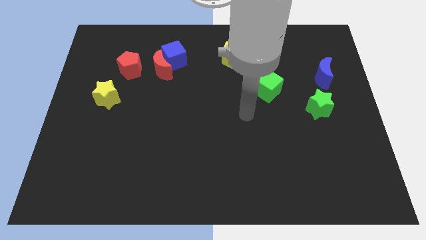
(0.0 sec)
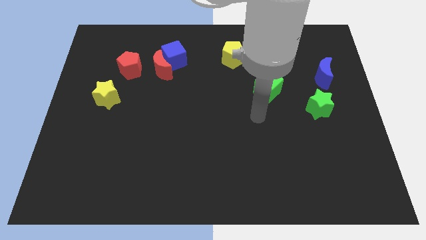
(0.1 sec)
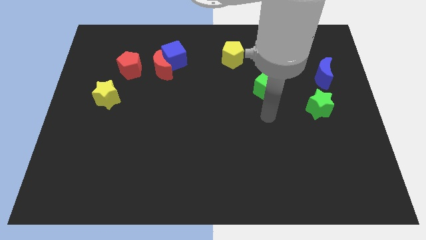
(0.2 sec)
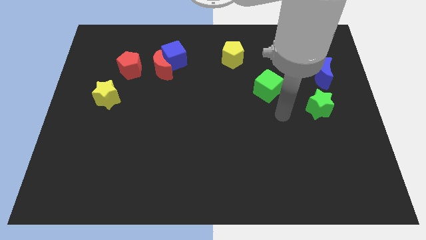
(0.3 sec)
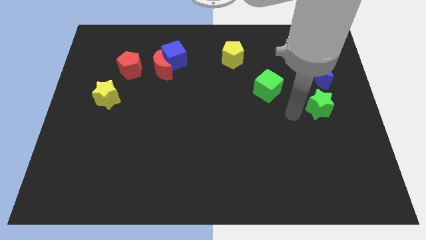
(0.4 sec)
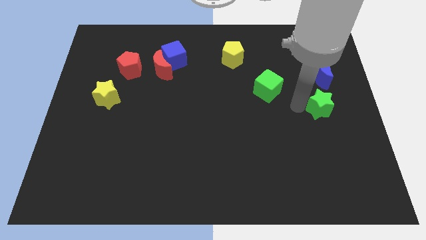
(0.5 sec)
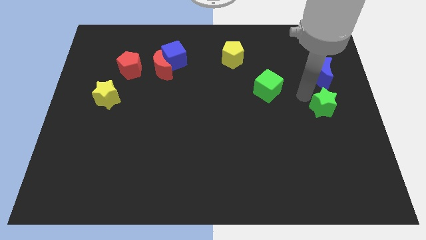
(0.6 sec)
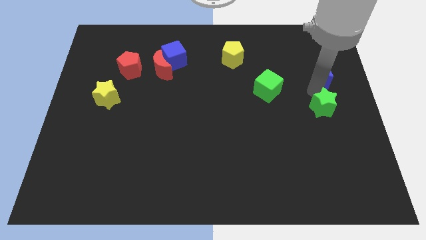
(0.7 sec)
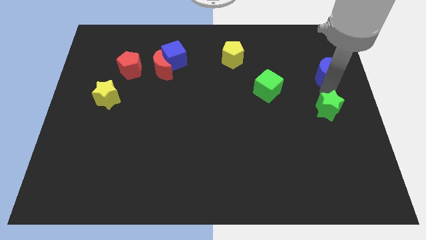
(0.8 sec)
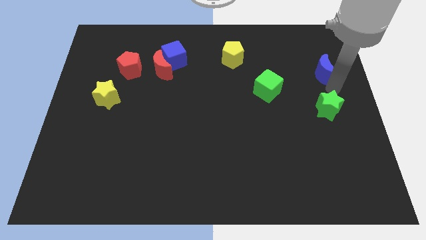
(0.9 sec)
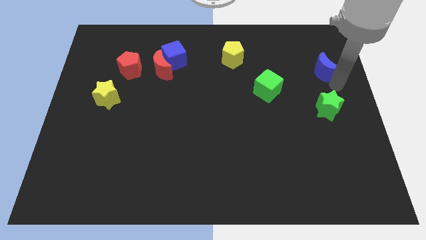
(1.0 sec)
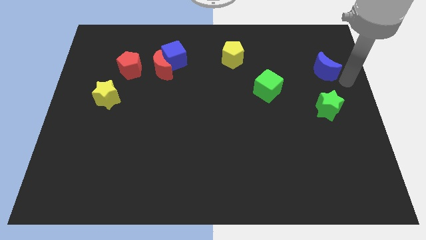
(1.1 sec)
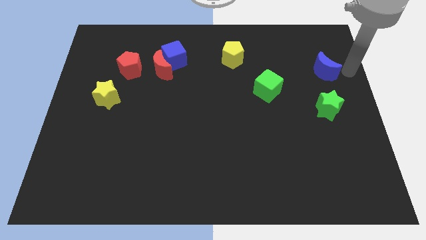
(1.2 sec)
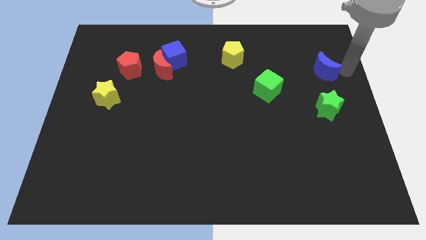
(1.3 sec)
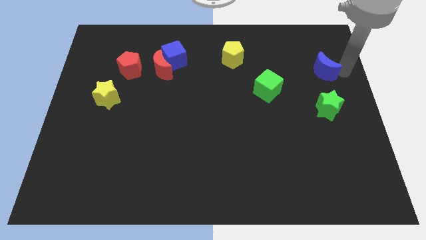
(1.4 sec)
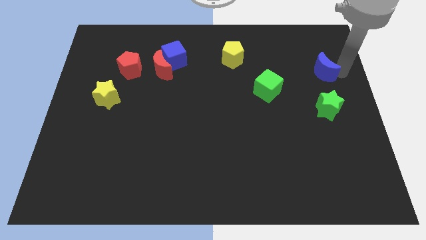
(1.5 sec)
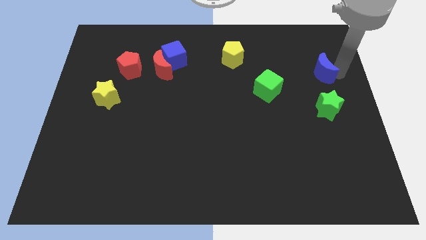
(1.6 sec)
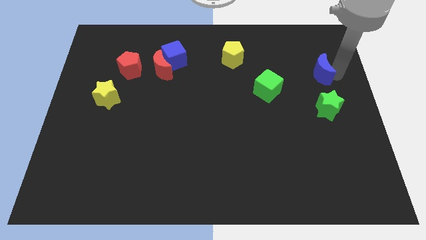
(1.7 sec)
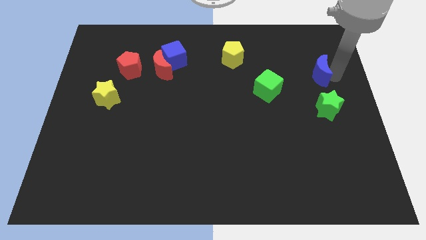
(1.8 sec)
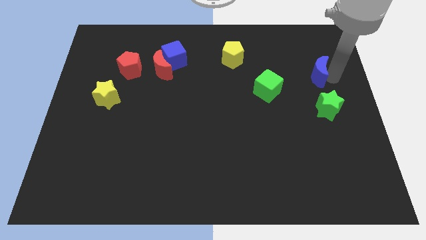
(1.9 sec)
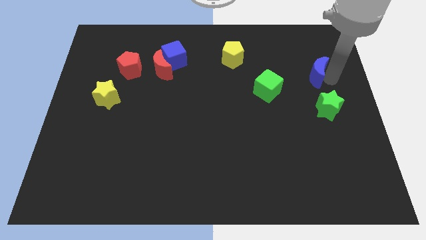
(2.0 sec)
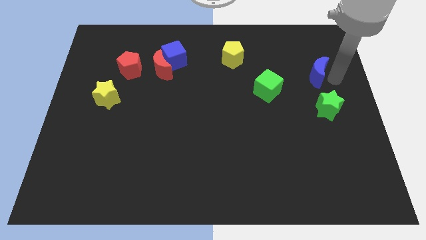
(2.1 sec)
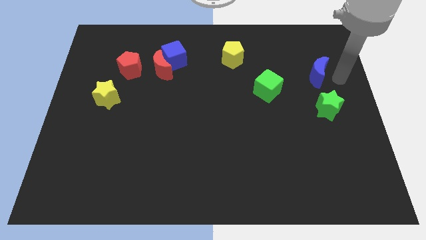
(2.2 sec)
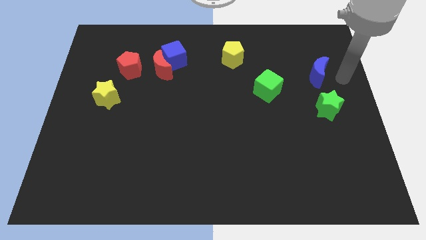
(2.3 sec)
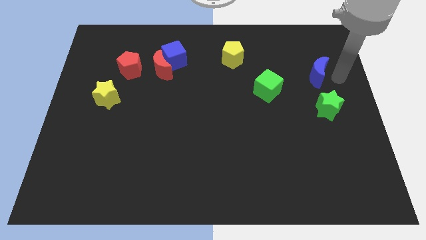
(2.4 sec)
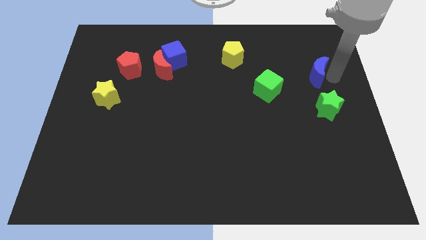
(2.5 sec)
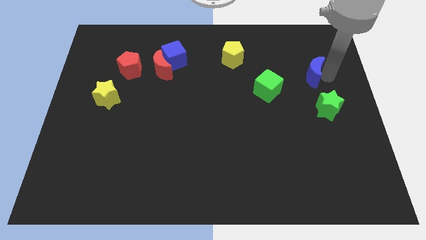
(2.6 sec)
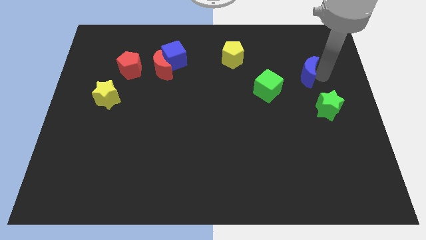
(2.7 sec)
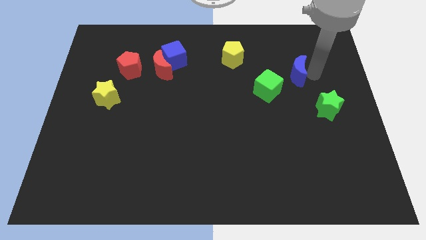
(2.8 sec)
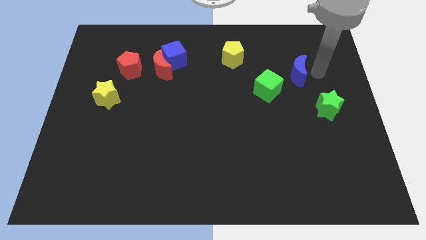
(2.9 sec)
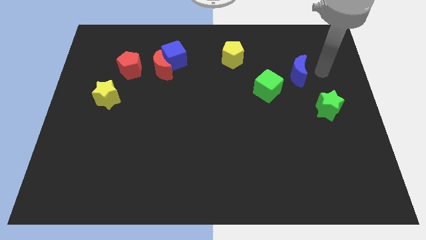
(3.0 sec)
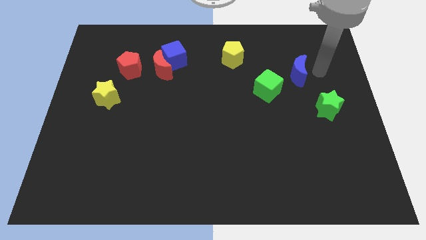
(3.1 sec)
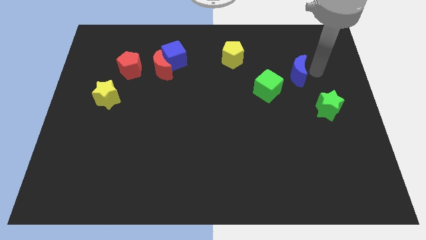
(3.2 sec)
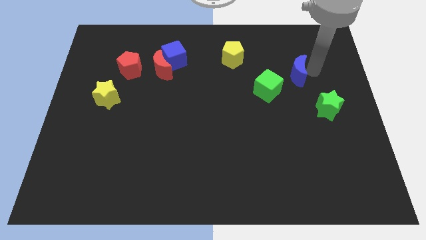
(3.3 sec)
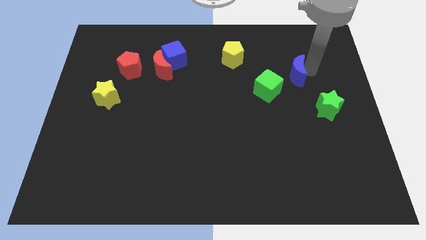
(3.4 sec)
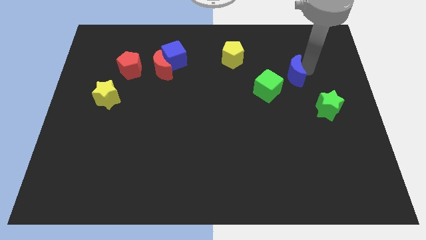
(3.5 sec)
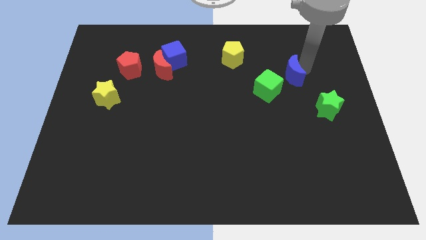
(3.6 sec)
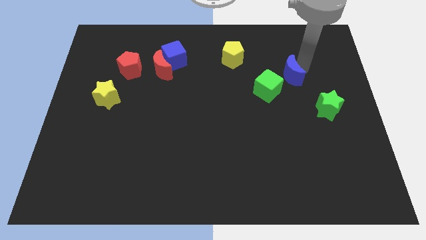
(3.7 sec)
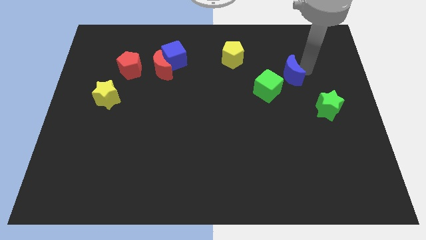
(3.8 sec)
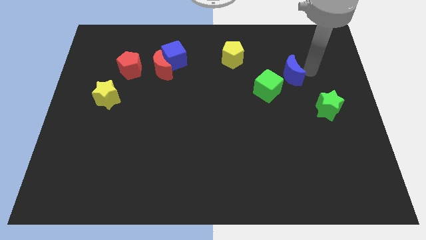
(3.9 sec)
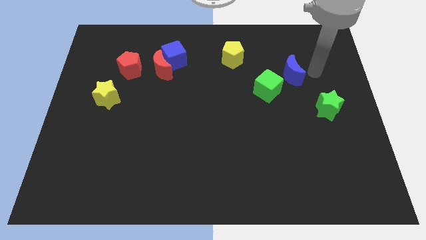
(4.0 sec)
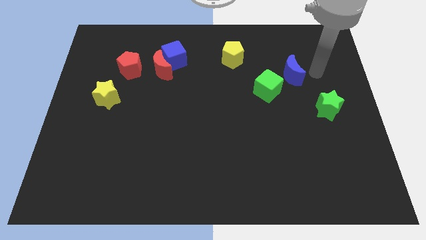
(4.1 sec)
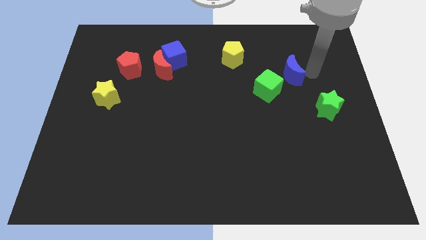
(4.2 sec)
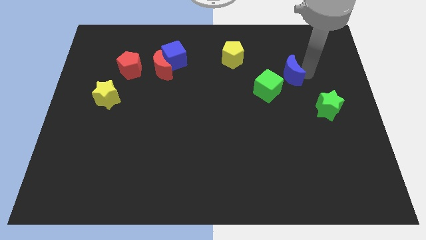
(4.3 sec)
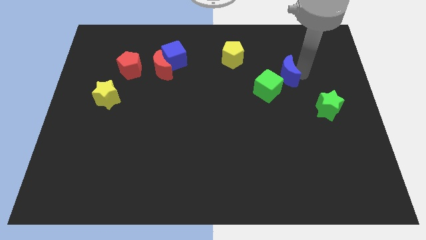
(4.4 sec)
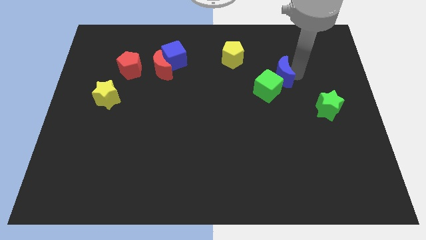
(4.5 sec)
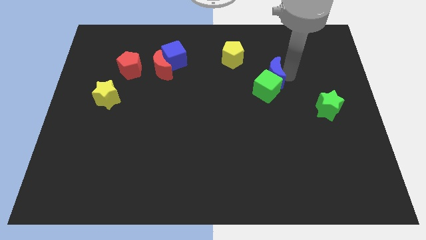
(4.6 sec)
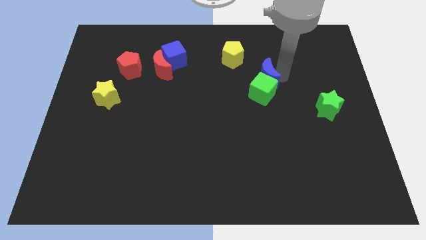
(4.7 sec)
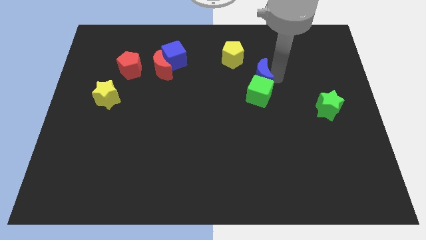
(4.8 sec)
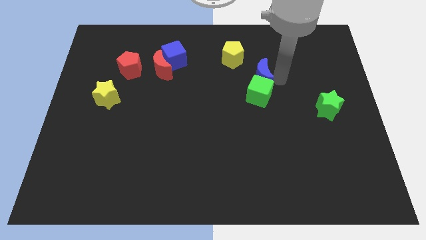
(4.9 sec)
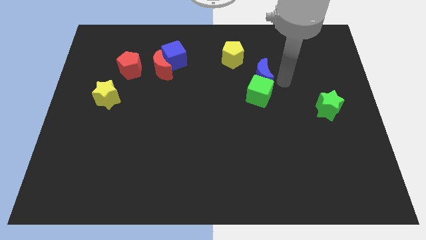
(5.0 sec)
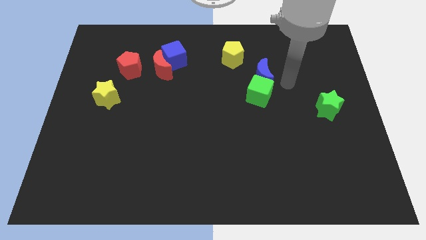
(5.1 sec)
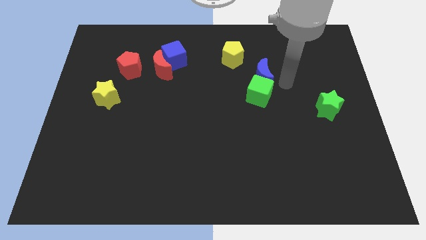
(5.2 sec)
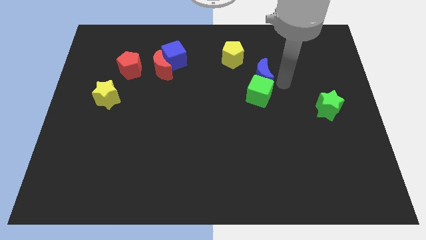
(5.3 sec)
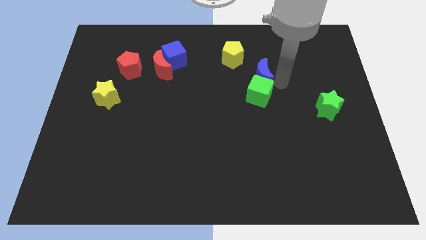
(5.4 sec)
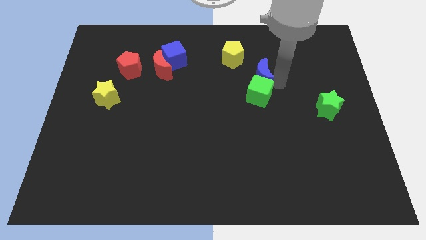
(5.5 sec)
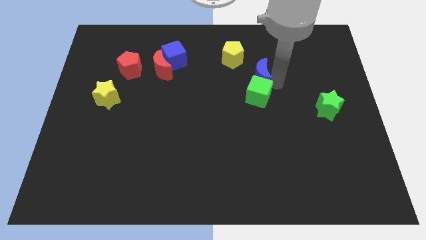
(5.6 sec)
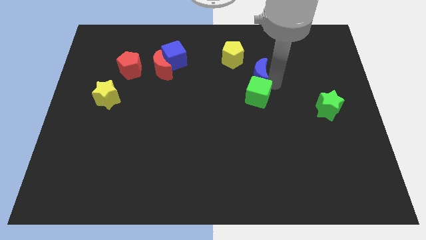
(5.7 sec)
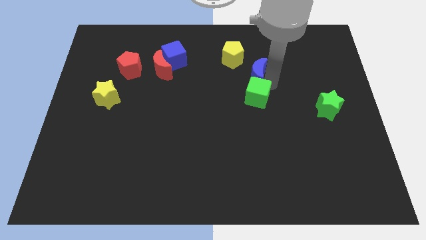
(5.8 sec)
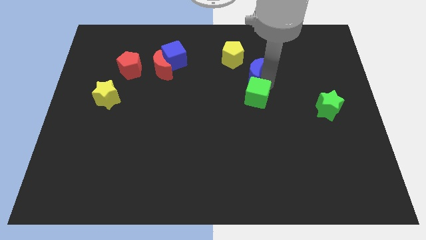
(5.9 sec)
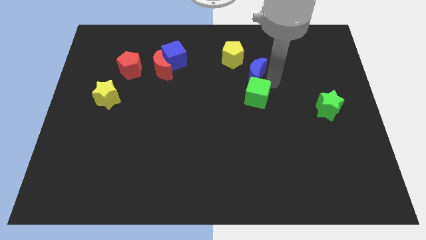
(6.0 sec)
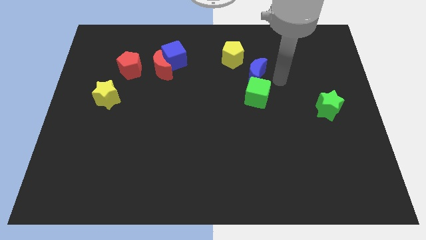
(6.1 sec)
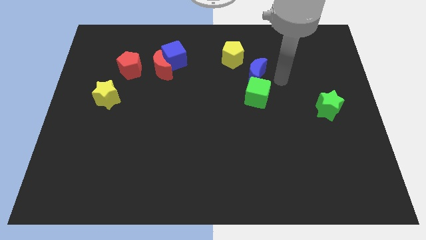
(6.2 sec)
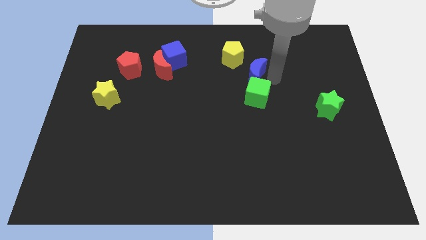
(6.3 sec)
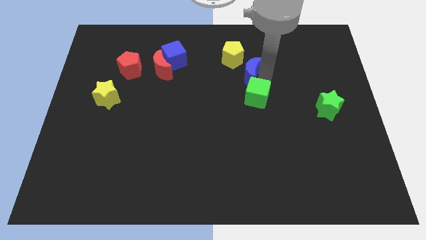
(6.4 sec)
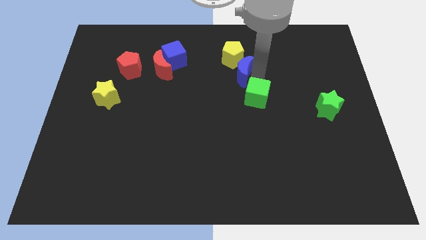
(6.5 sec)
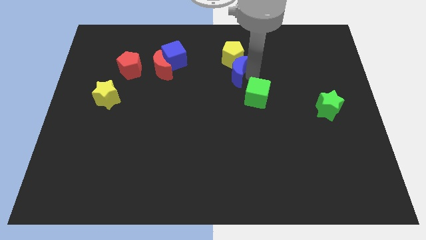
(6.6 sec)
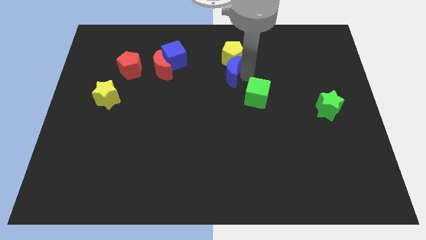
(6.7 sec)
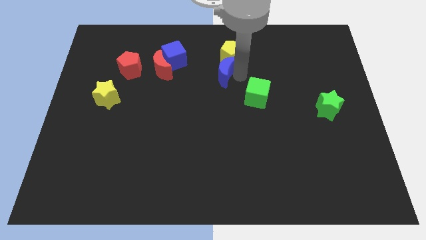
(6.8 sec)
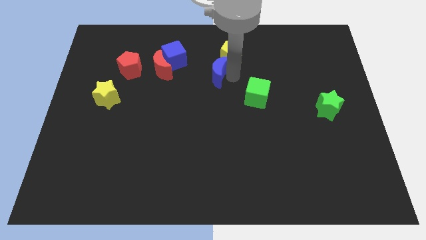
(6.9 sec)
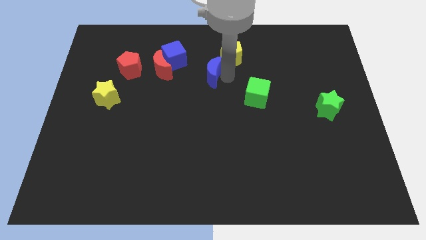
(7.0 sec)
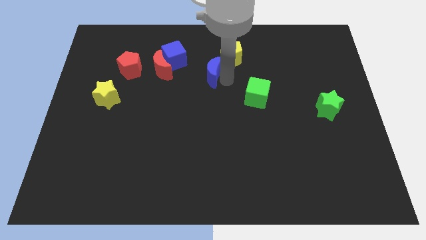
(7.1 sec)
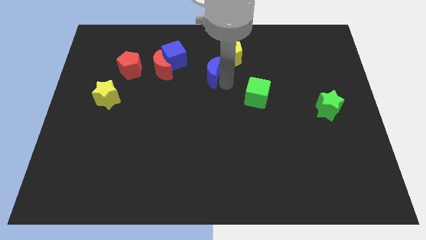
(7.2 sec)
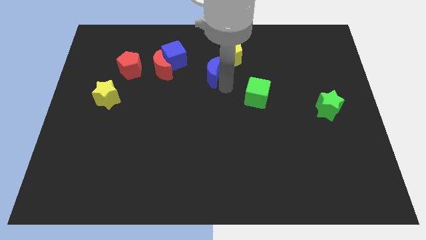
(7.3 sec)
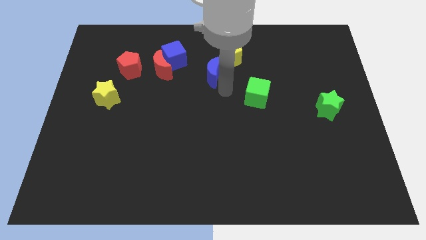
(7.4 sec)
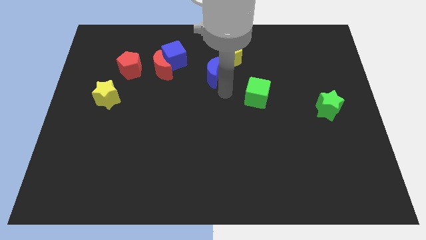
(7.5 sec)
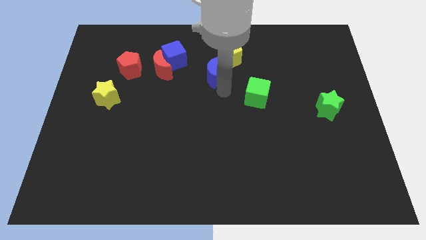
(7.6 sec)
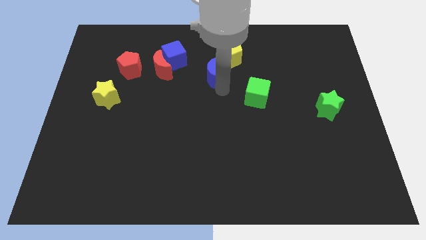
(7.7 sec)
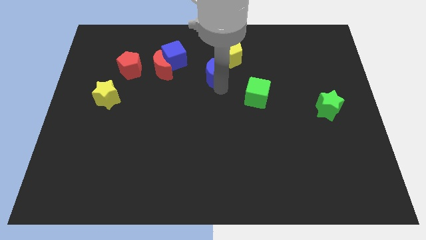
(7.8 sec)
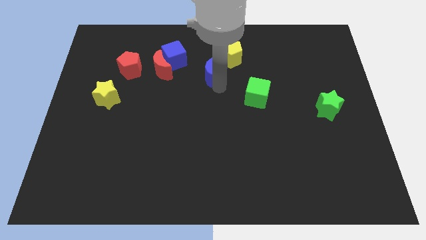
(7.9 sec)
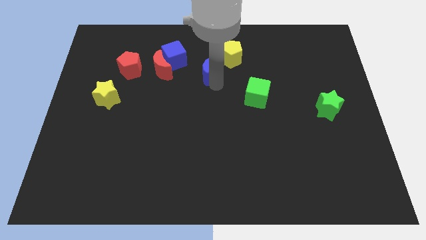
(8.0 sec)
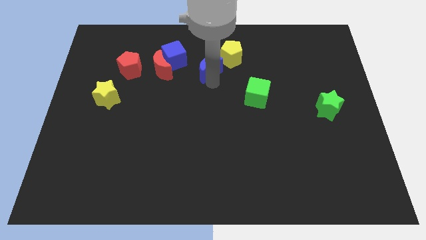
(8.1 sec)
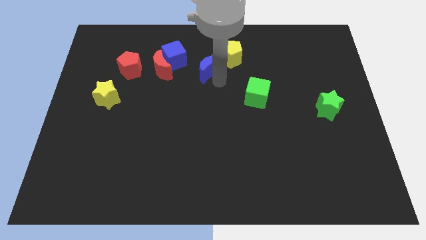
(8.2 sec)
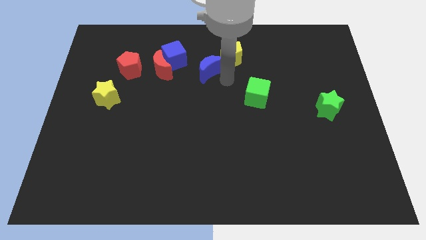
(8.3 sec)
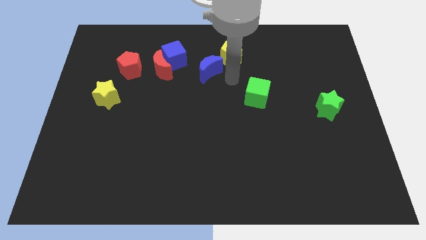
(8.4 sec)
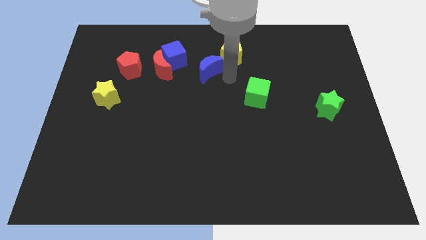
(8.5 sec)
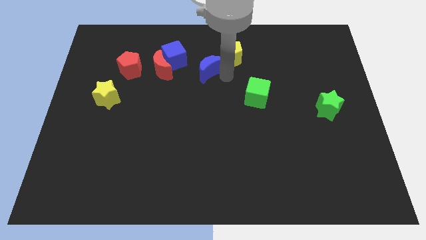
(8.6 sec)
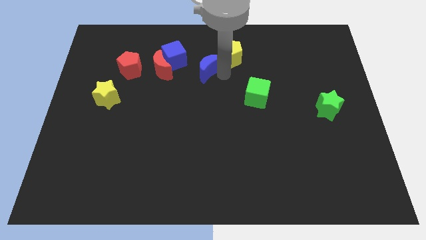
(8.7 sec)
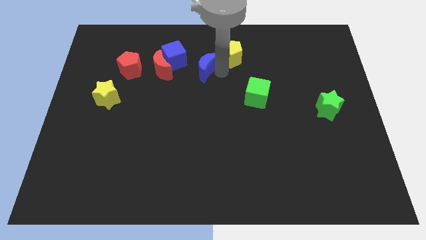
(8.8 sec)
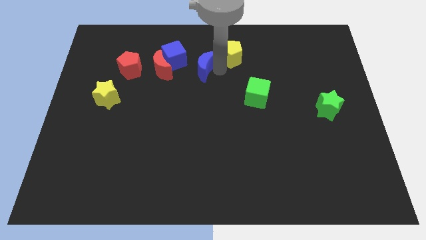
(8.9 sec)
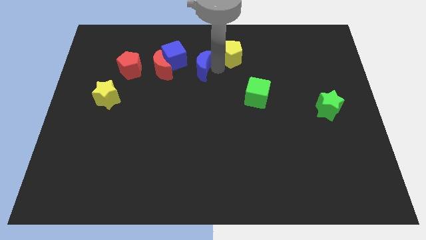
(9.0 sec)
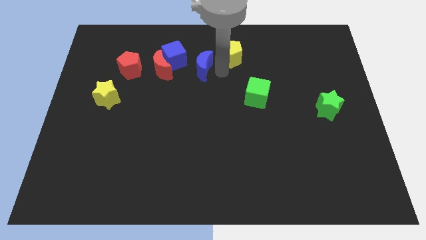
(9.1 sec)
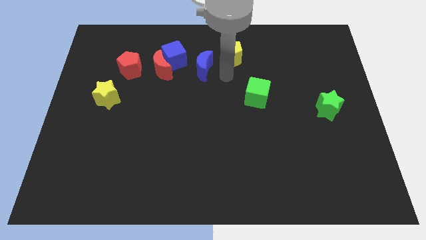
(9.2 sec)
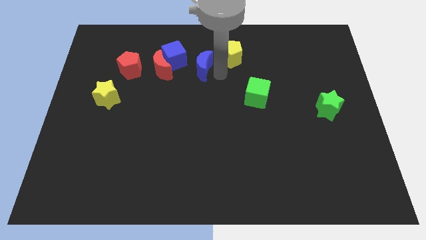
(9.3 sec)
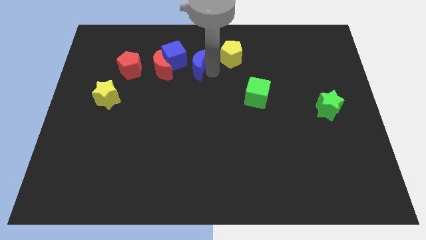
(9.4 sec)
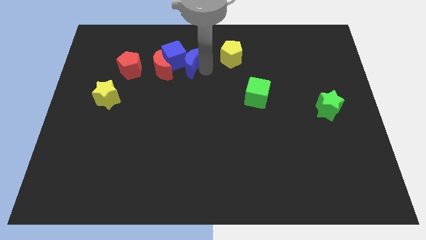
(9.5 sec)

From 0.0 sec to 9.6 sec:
slide the blue moon close to the blue cube
